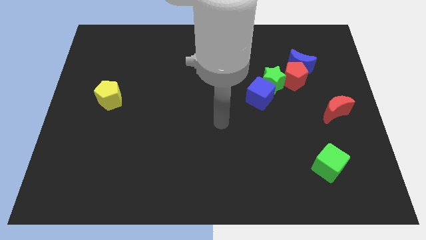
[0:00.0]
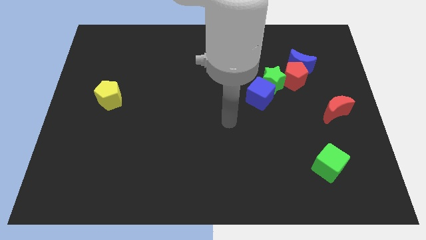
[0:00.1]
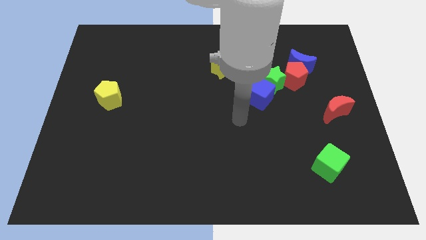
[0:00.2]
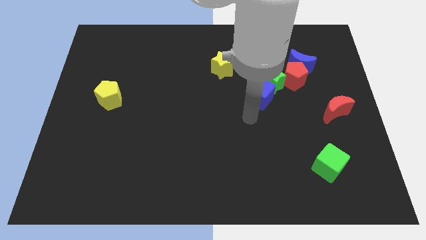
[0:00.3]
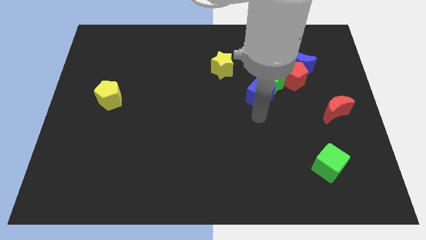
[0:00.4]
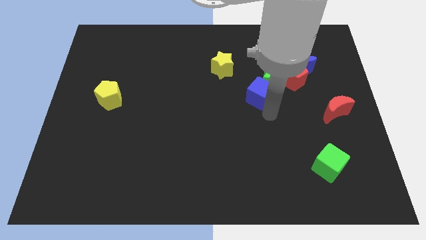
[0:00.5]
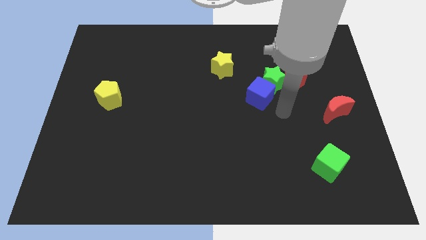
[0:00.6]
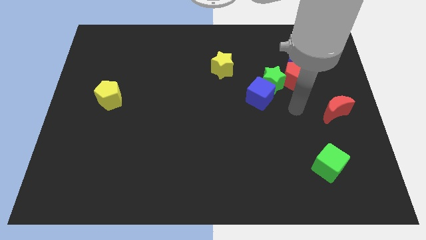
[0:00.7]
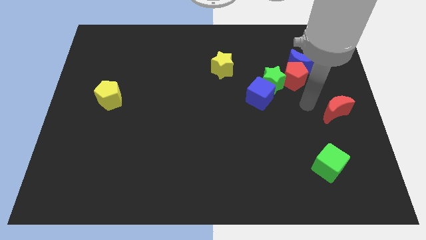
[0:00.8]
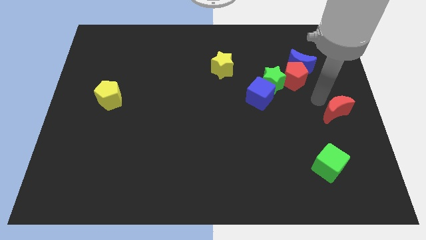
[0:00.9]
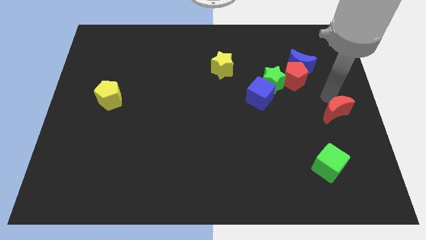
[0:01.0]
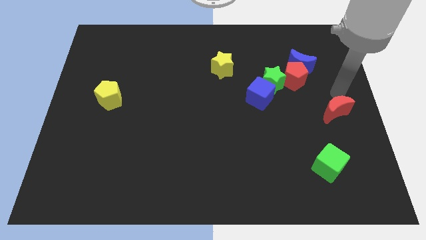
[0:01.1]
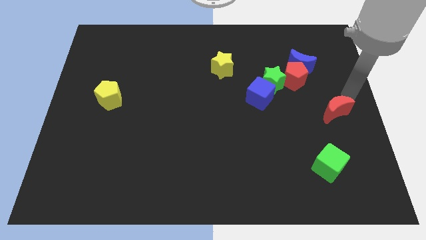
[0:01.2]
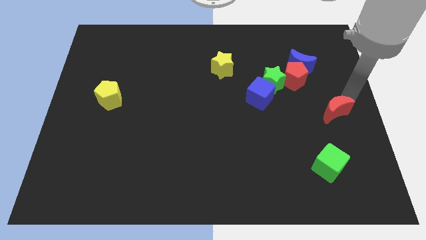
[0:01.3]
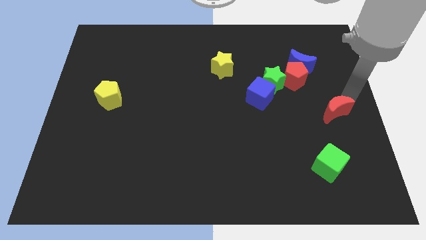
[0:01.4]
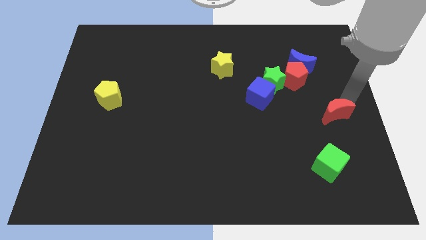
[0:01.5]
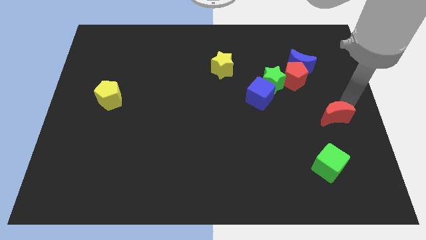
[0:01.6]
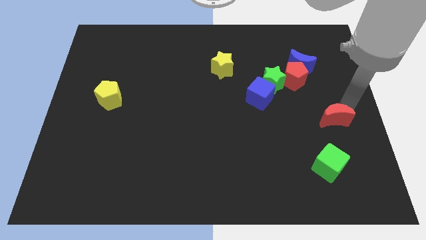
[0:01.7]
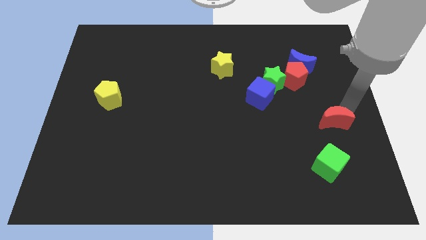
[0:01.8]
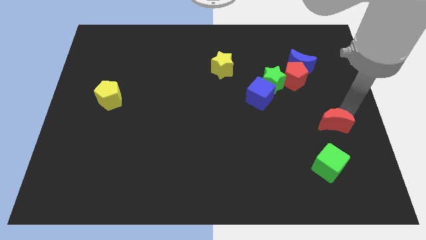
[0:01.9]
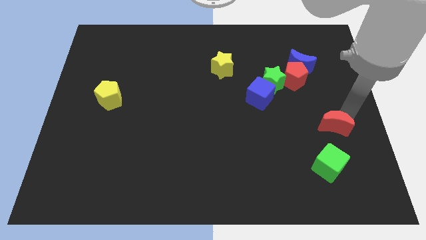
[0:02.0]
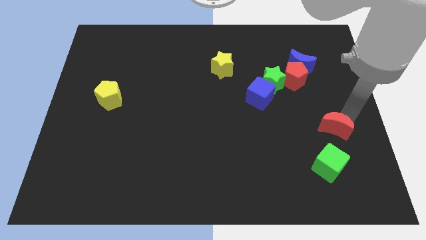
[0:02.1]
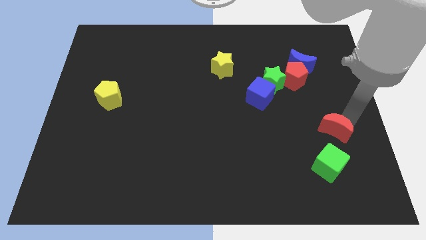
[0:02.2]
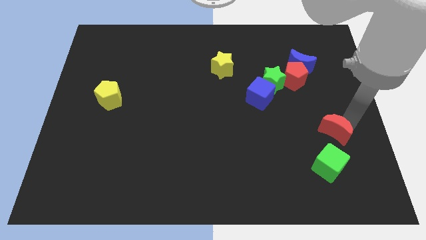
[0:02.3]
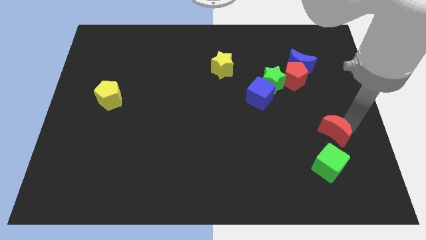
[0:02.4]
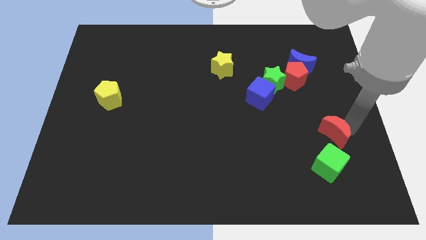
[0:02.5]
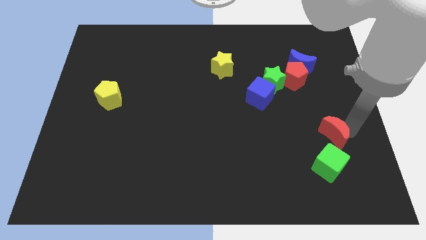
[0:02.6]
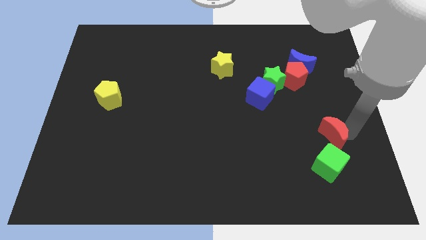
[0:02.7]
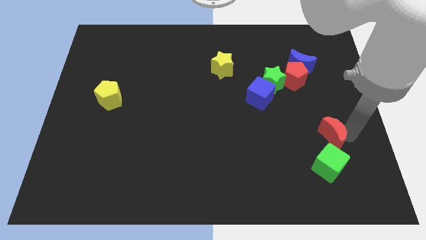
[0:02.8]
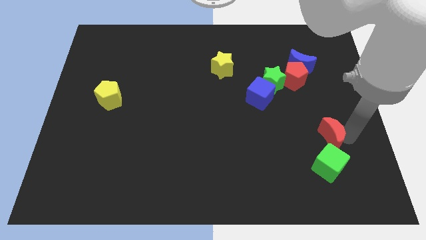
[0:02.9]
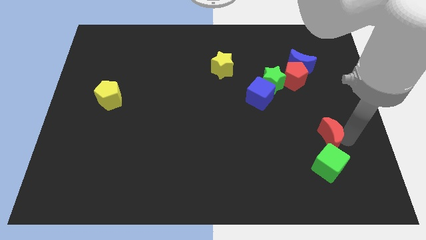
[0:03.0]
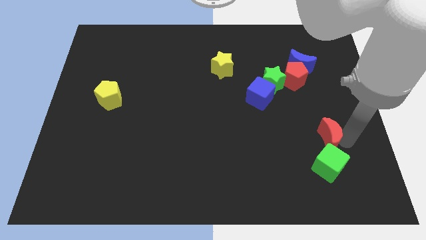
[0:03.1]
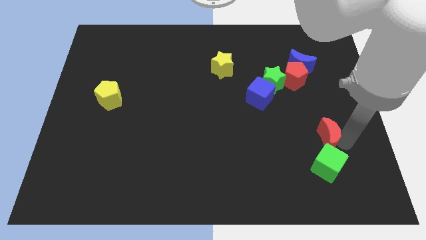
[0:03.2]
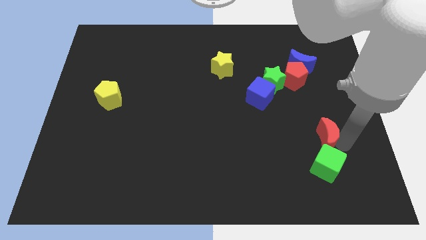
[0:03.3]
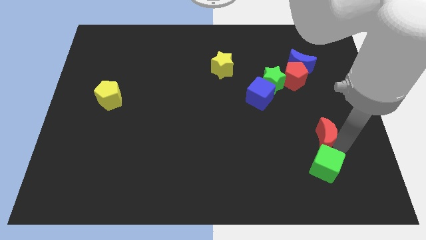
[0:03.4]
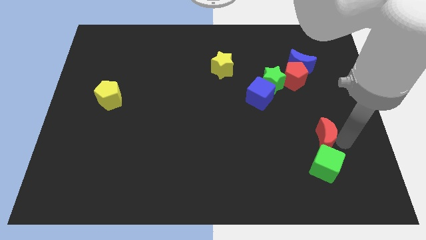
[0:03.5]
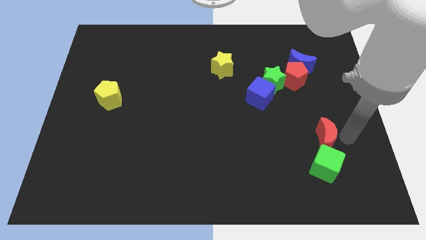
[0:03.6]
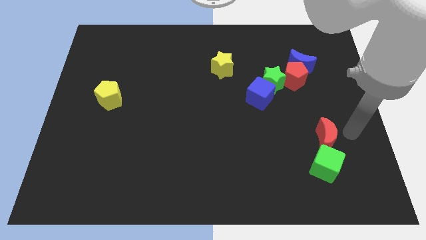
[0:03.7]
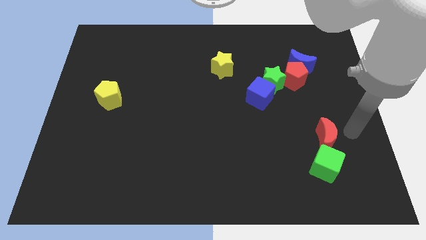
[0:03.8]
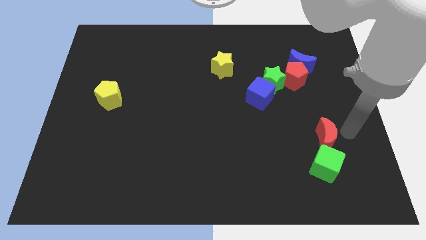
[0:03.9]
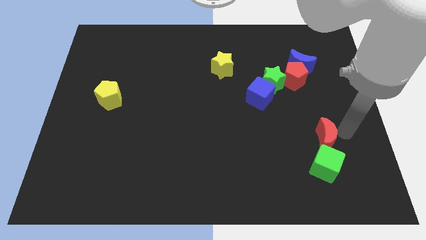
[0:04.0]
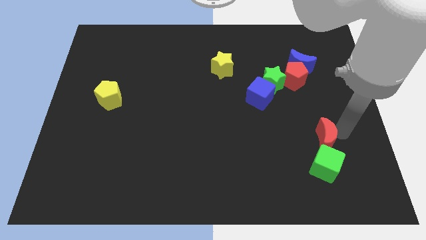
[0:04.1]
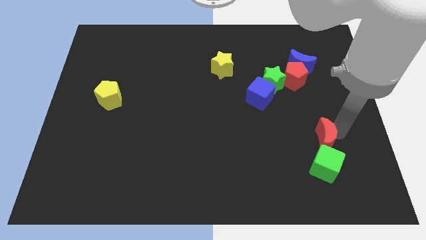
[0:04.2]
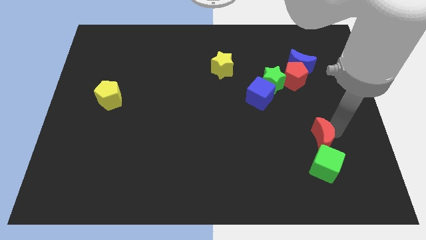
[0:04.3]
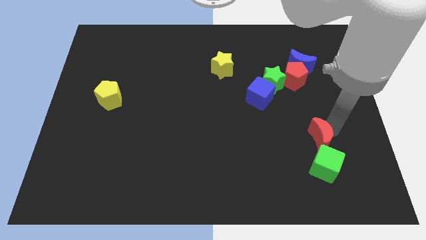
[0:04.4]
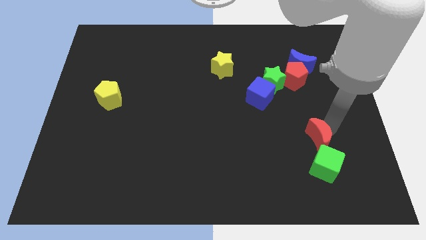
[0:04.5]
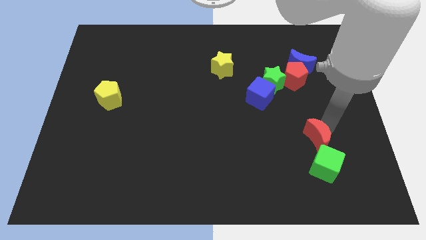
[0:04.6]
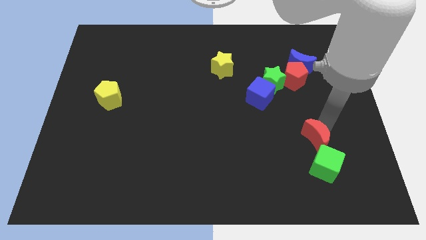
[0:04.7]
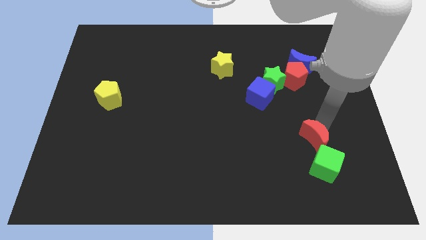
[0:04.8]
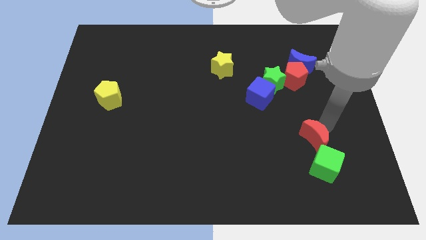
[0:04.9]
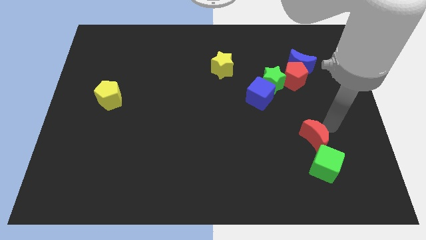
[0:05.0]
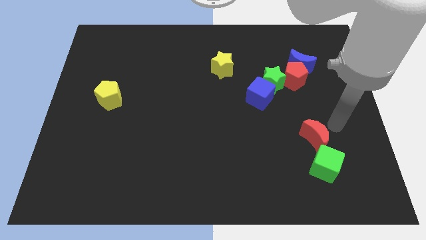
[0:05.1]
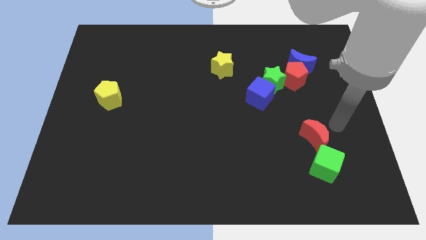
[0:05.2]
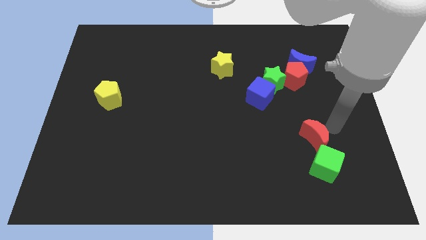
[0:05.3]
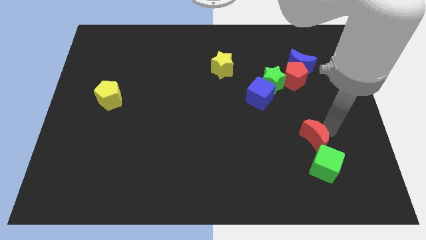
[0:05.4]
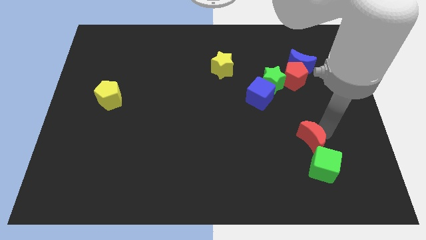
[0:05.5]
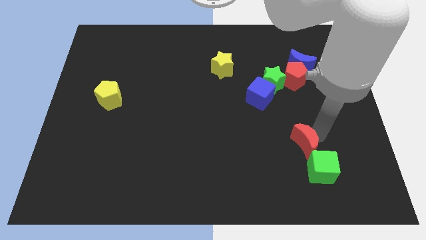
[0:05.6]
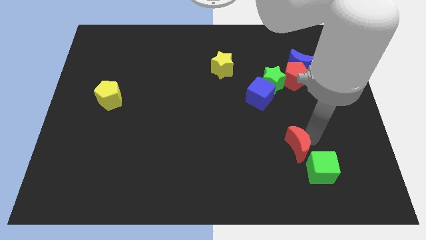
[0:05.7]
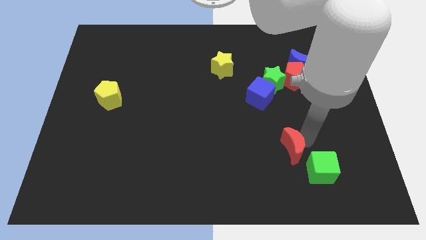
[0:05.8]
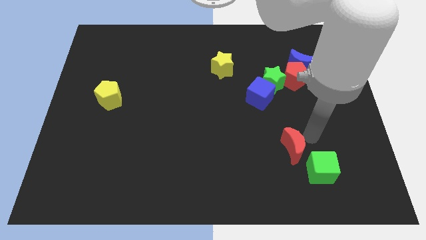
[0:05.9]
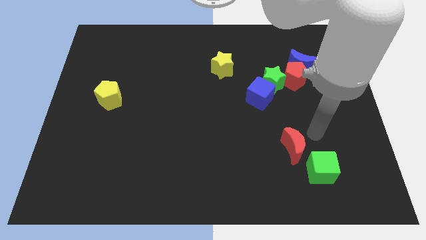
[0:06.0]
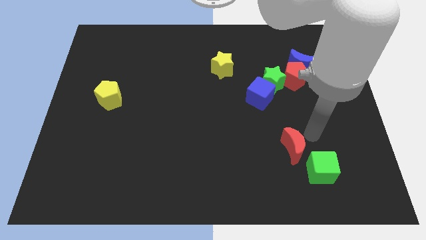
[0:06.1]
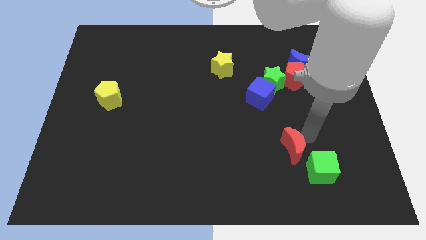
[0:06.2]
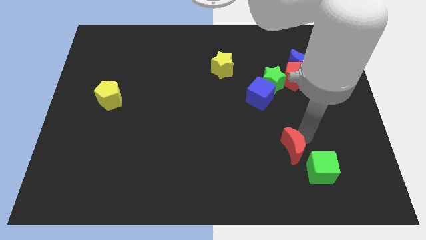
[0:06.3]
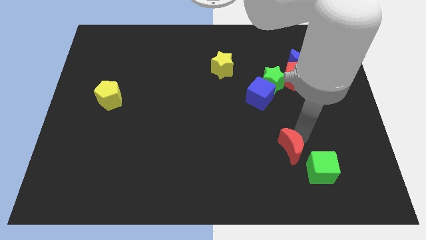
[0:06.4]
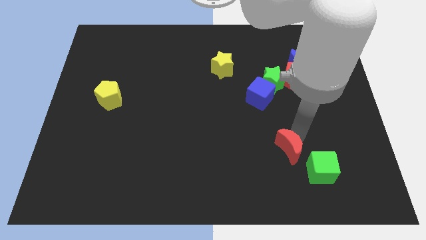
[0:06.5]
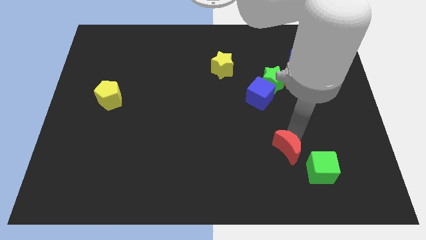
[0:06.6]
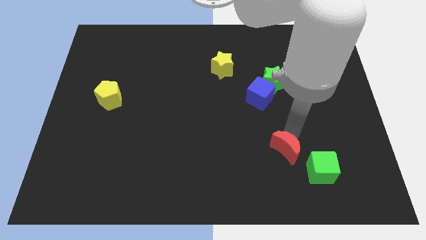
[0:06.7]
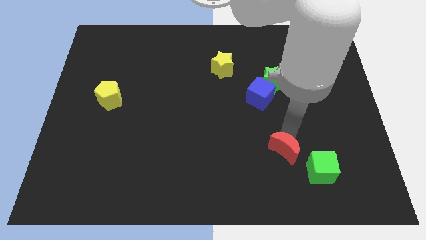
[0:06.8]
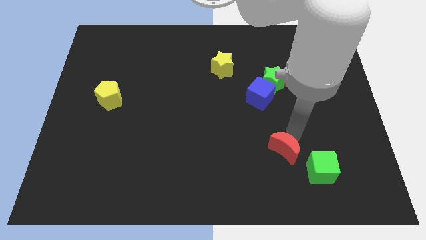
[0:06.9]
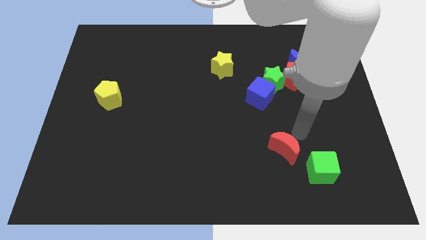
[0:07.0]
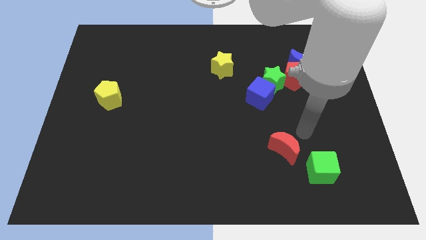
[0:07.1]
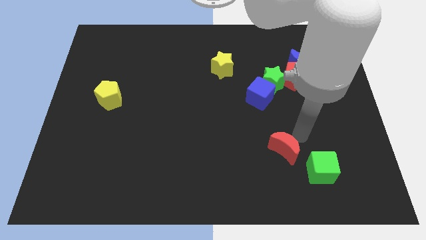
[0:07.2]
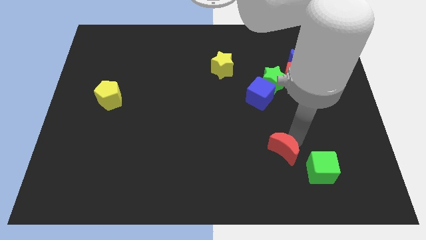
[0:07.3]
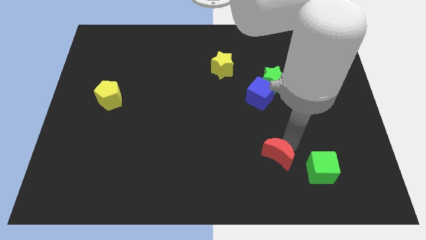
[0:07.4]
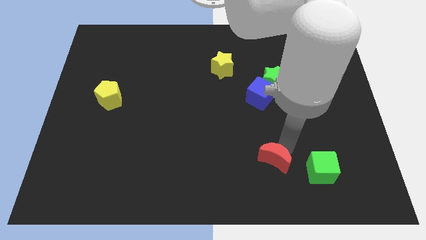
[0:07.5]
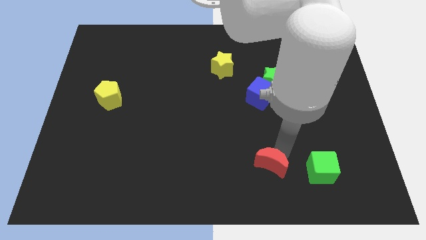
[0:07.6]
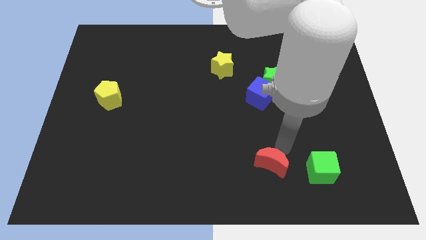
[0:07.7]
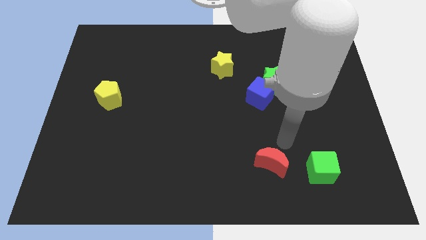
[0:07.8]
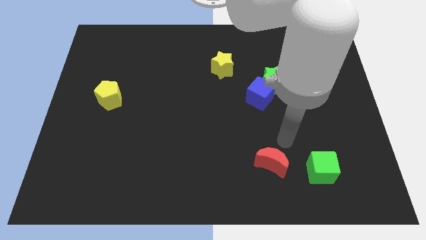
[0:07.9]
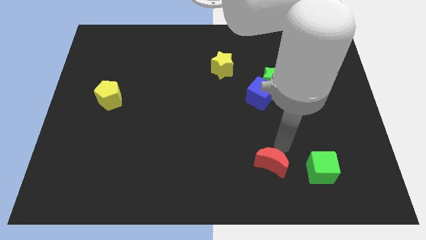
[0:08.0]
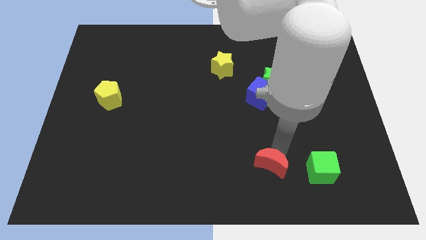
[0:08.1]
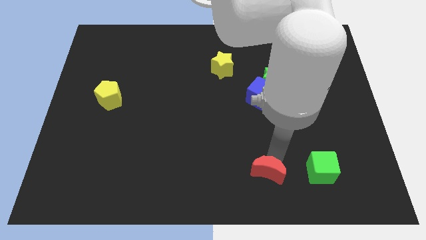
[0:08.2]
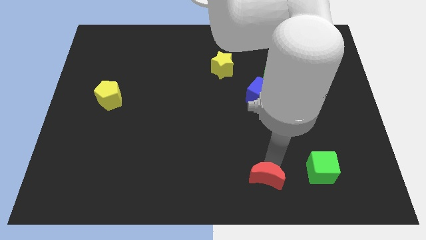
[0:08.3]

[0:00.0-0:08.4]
slide the red moon to the bottom
